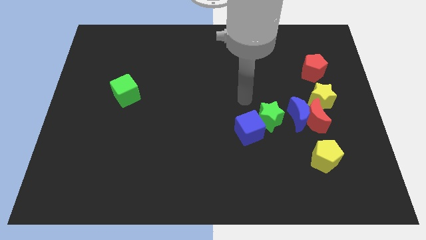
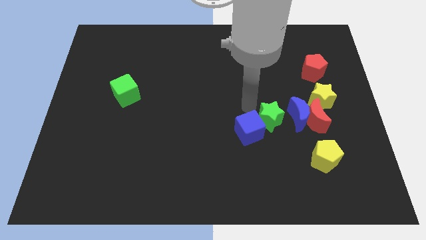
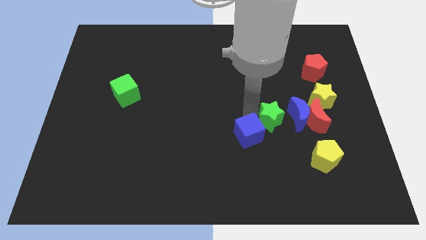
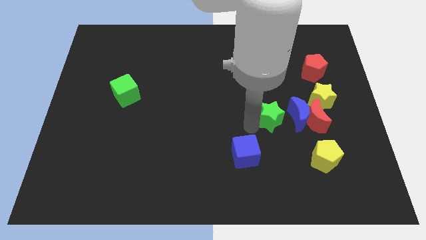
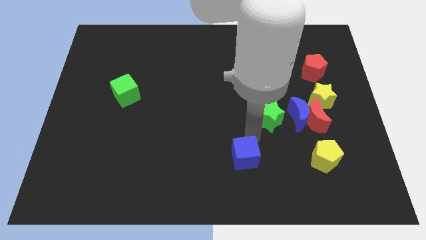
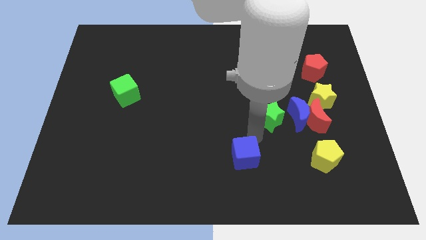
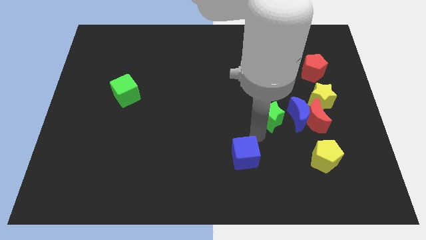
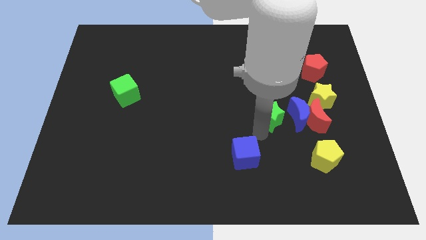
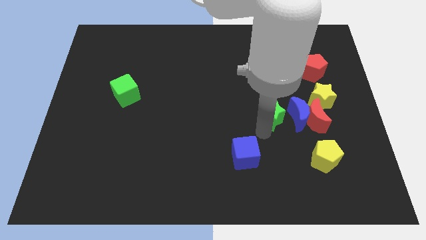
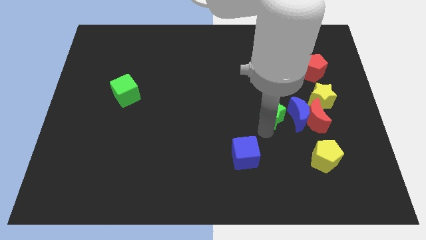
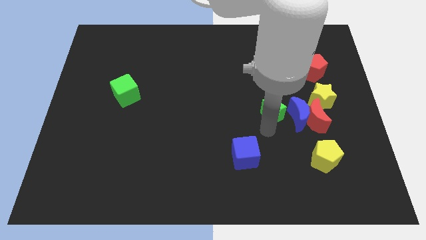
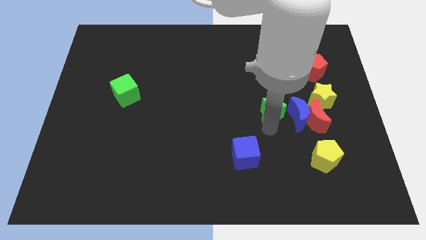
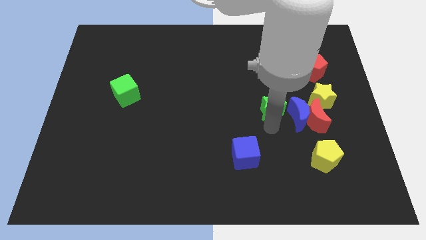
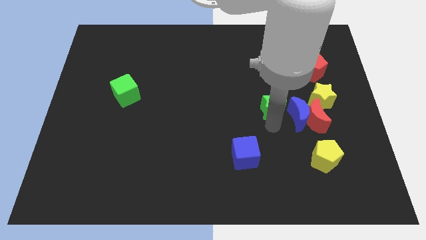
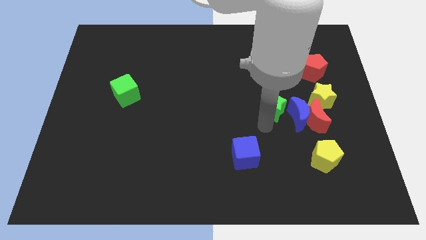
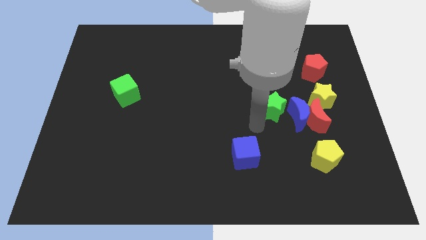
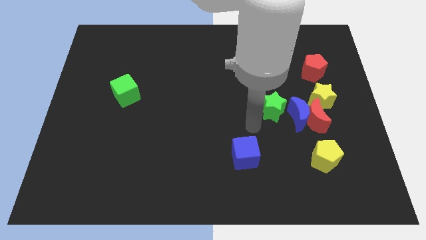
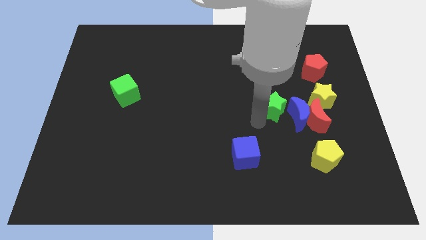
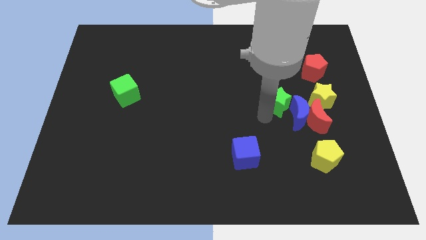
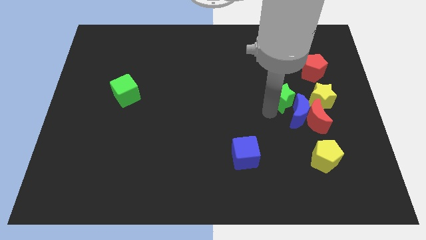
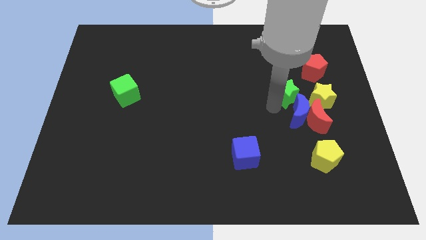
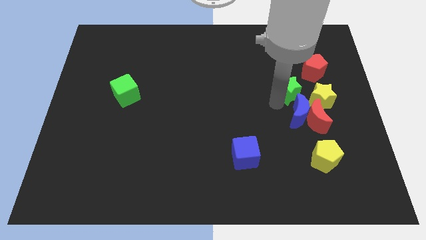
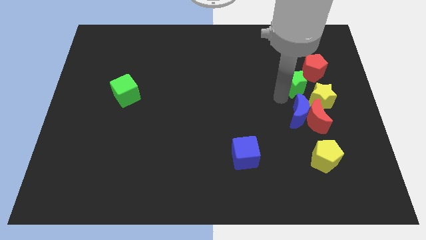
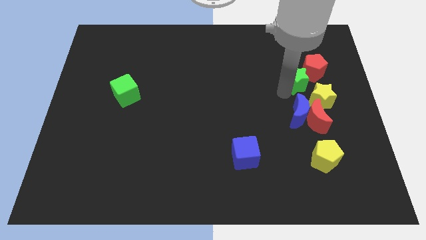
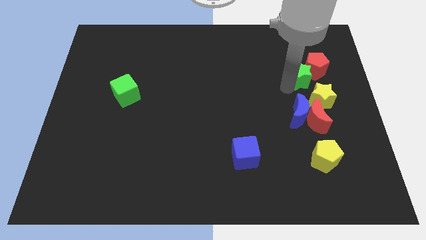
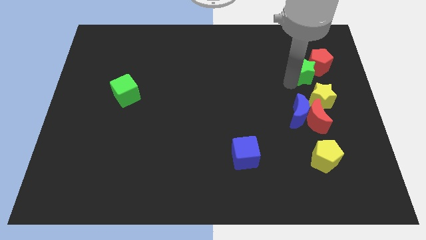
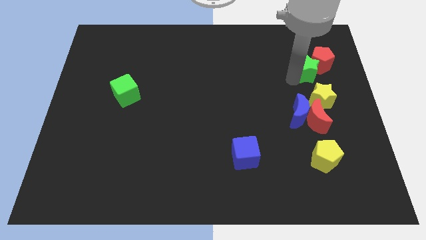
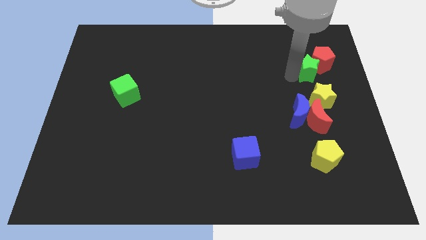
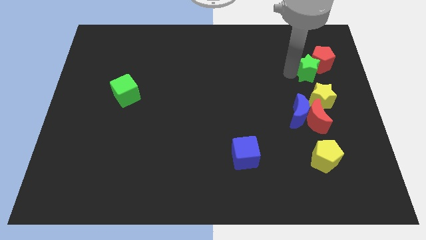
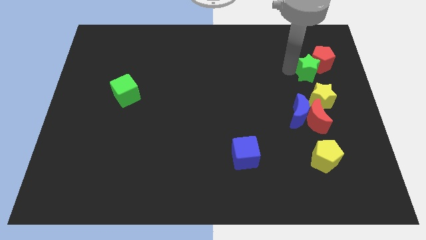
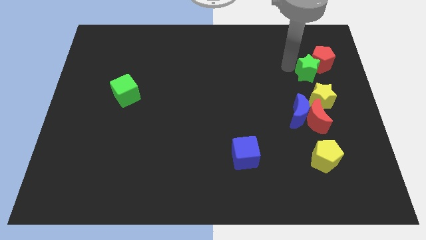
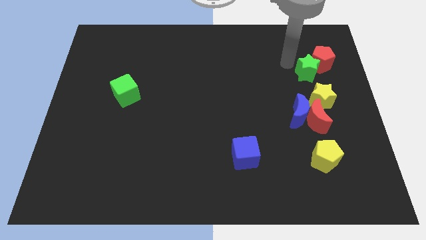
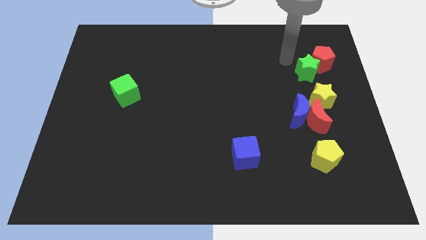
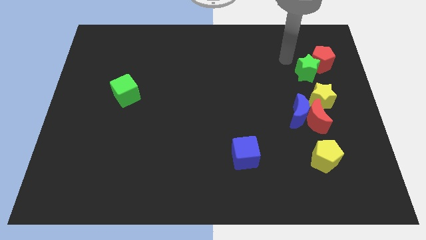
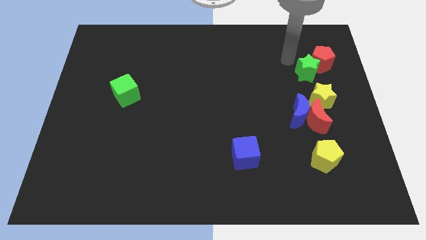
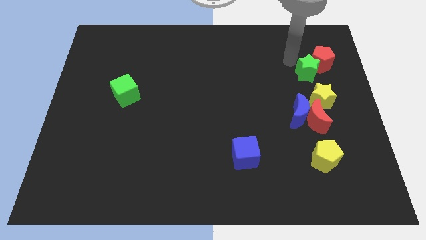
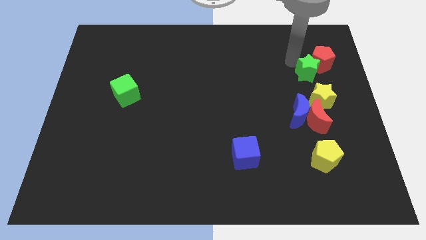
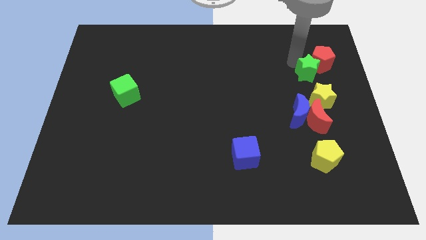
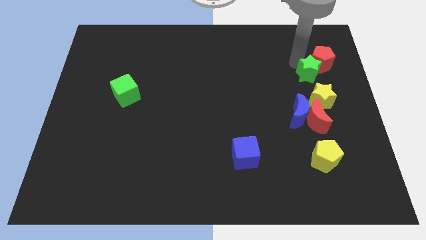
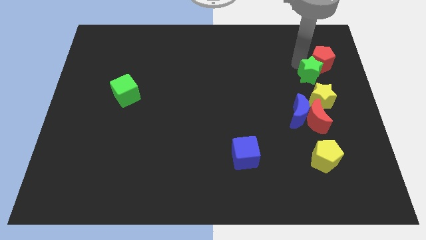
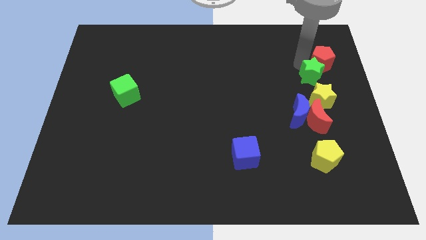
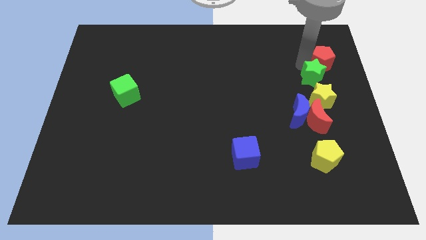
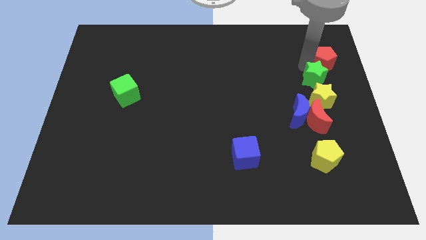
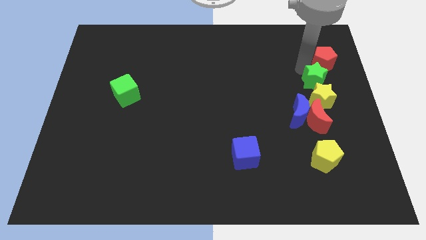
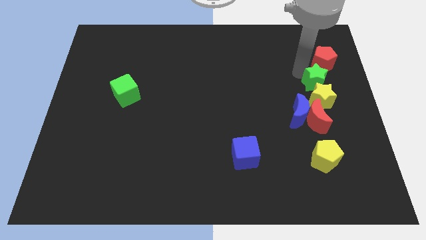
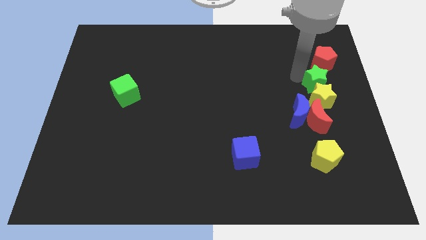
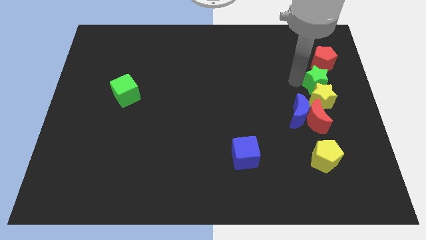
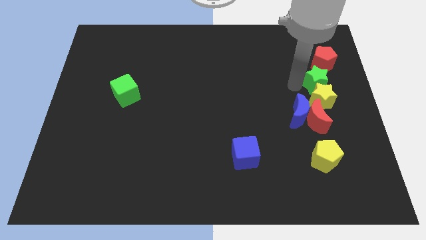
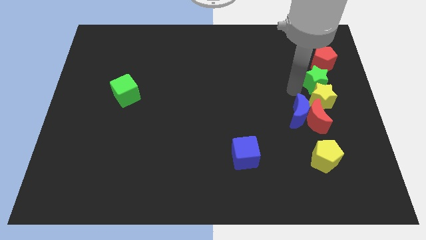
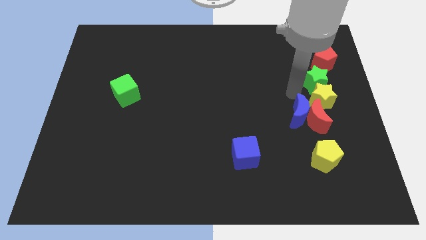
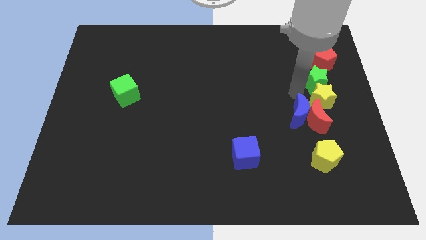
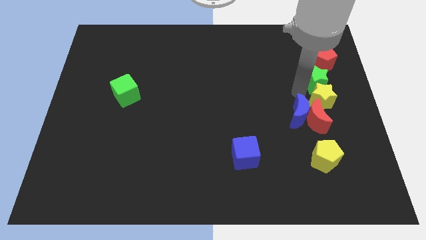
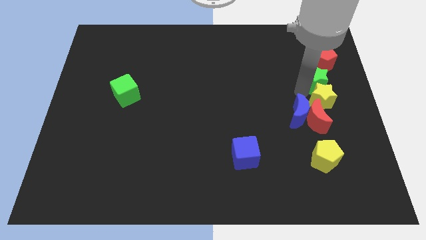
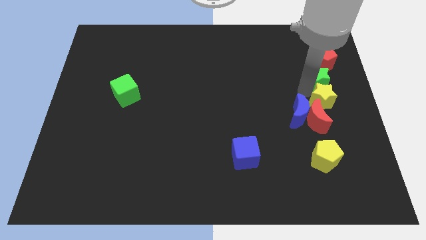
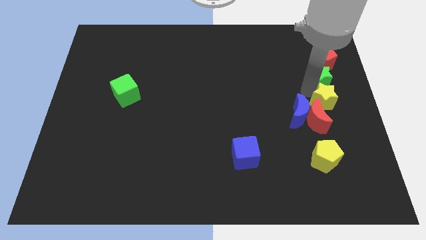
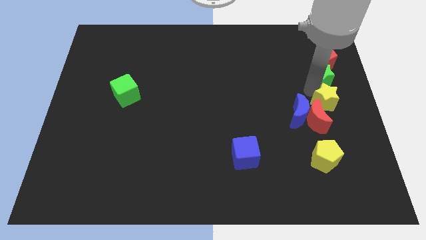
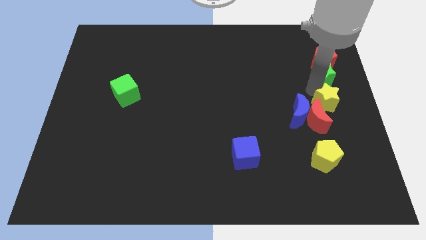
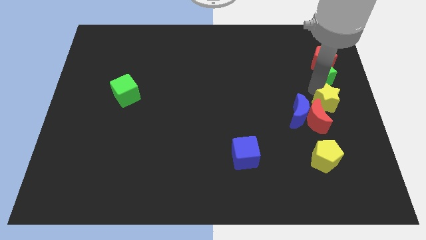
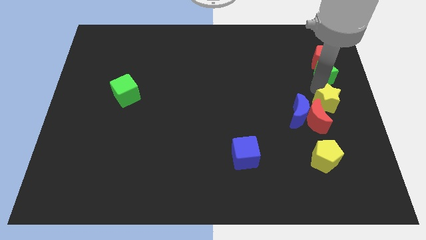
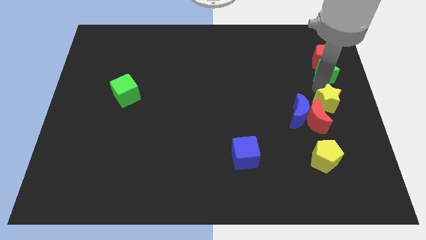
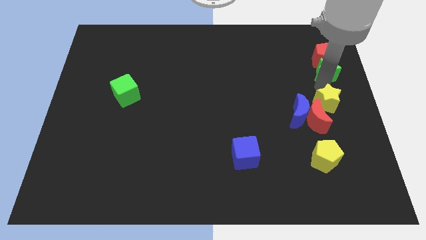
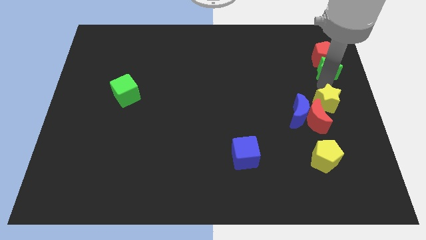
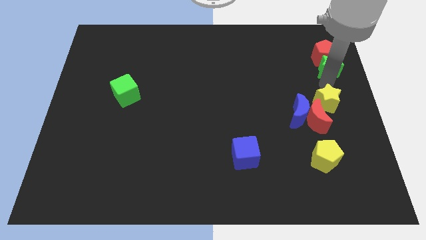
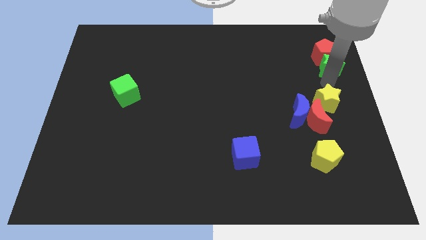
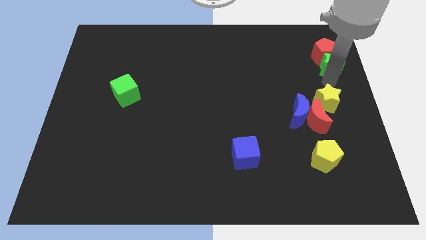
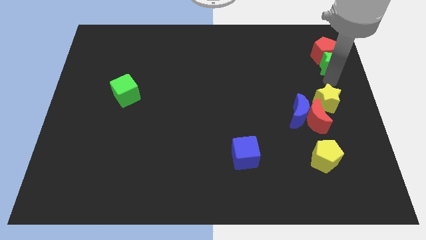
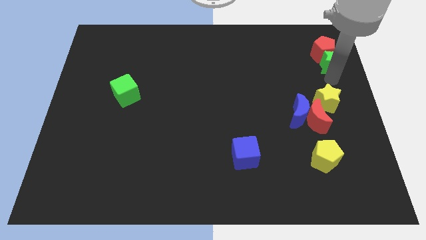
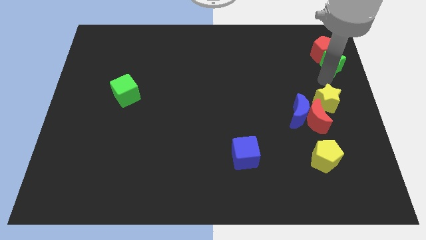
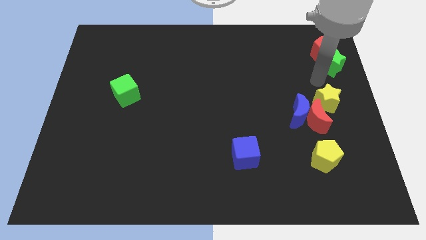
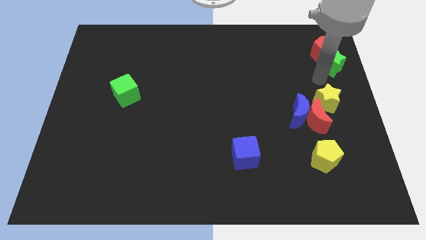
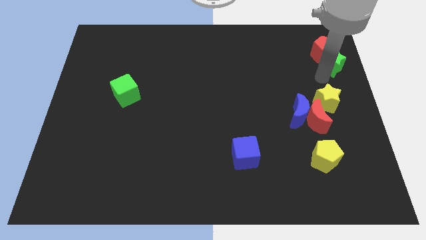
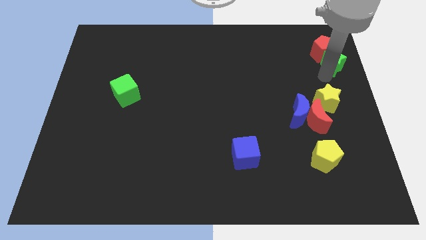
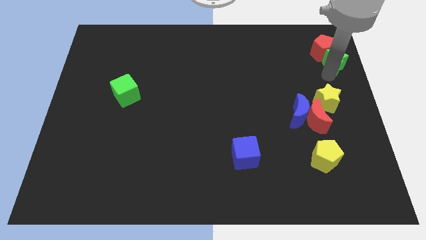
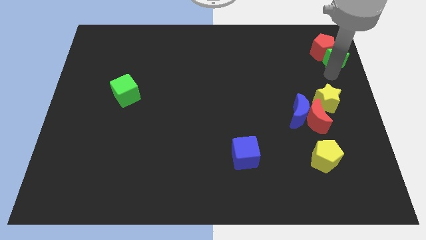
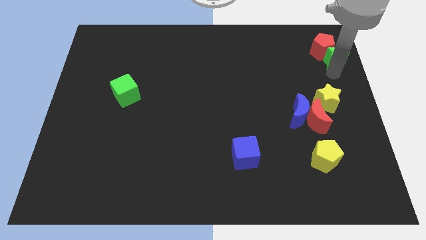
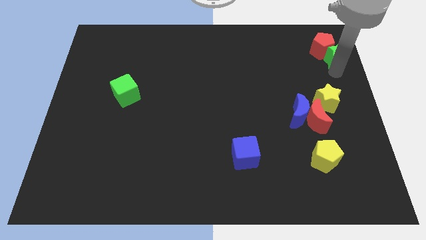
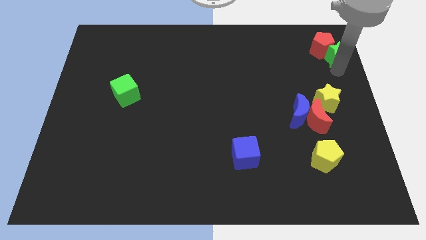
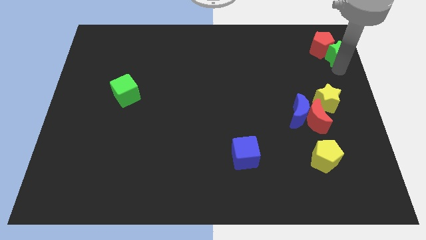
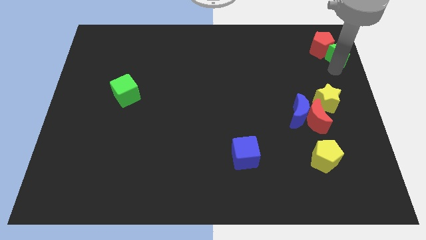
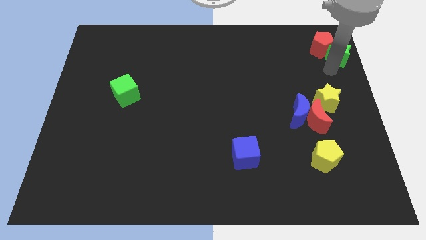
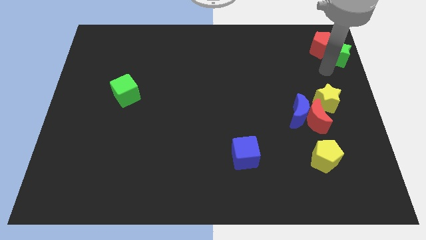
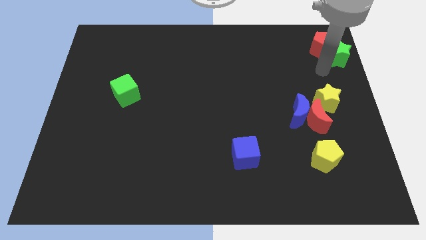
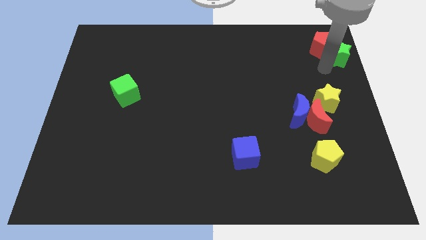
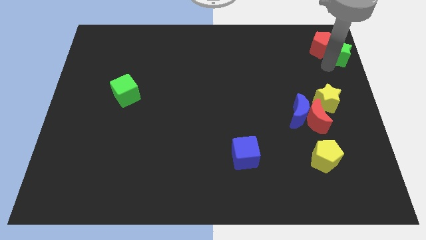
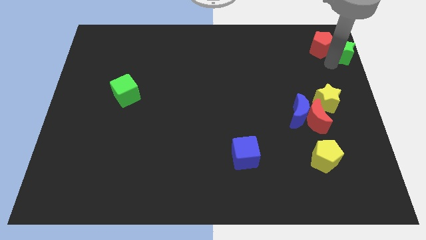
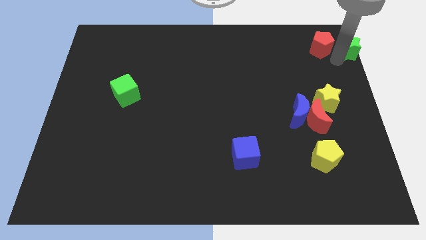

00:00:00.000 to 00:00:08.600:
slide the green star to the top right corner
